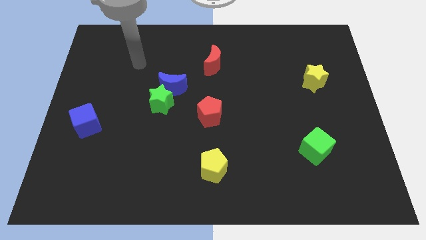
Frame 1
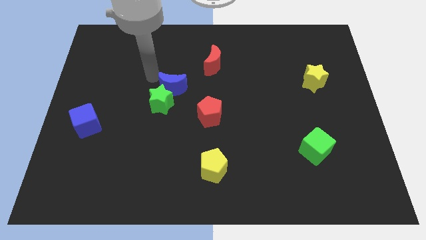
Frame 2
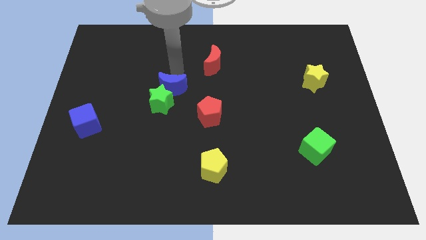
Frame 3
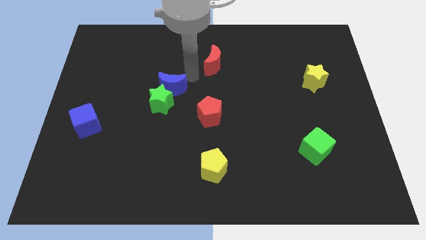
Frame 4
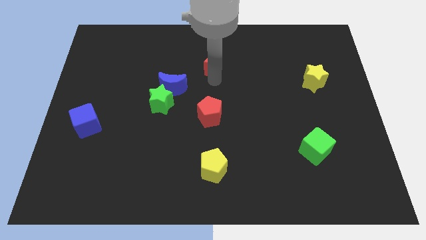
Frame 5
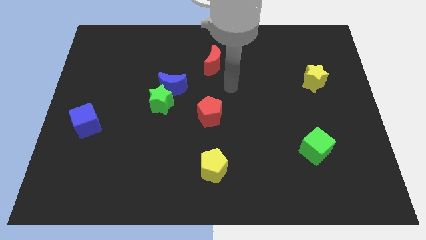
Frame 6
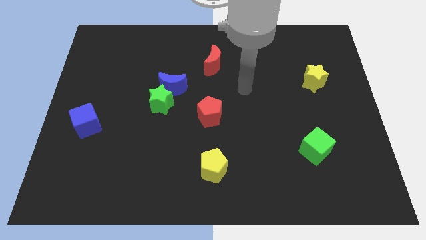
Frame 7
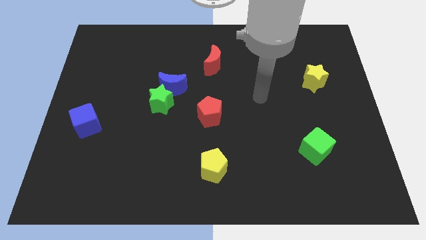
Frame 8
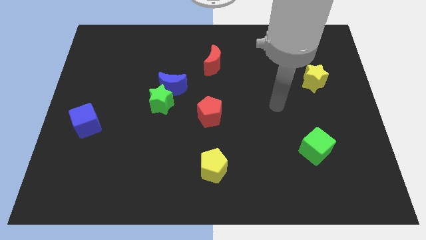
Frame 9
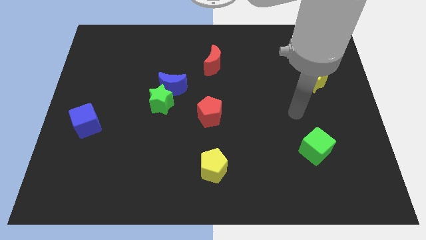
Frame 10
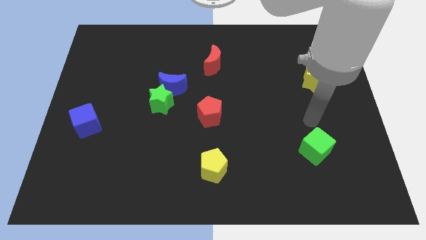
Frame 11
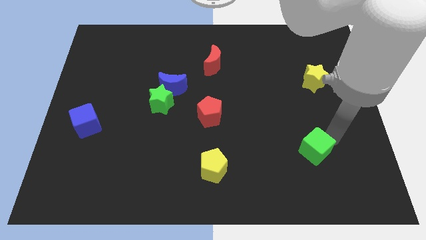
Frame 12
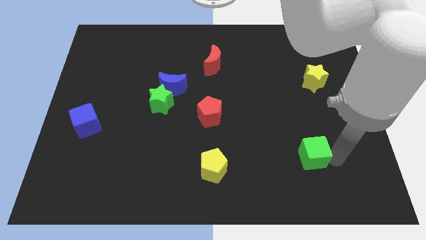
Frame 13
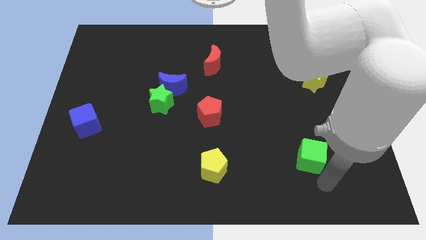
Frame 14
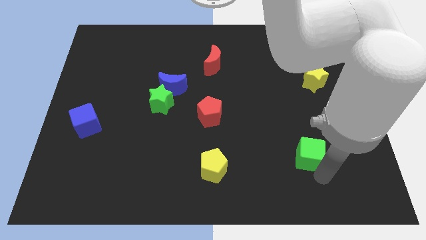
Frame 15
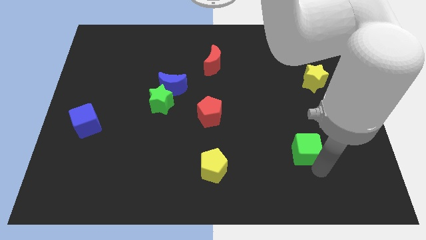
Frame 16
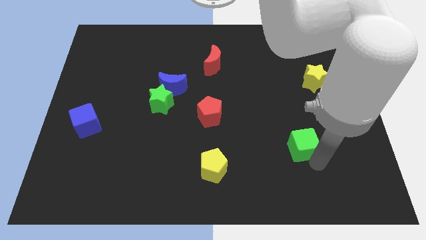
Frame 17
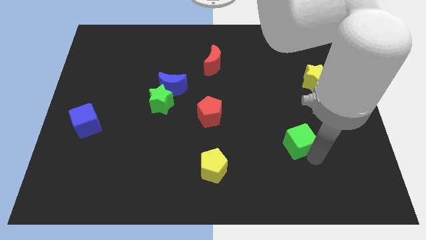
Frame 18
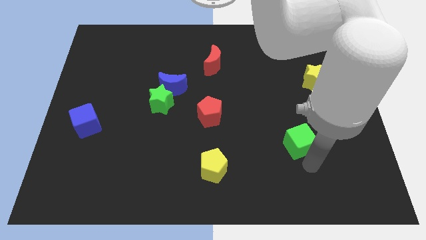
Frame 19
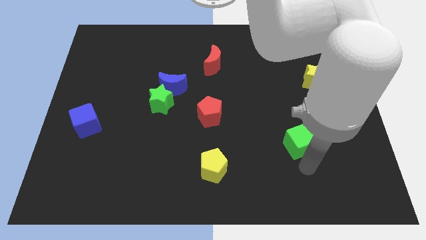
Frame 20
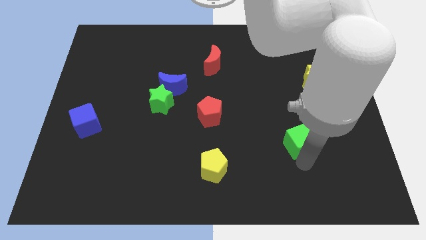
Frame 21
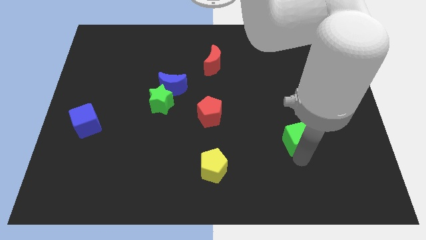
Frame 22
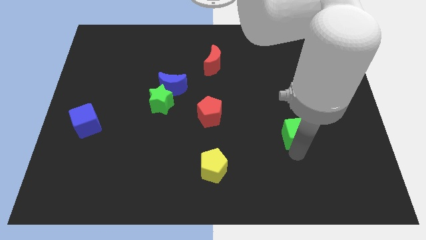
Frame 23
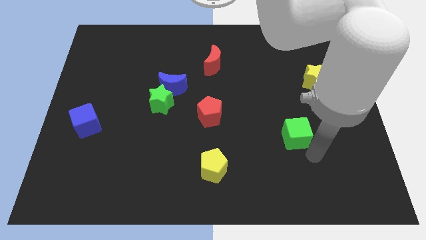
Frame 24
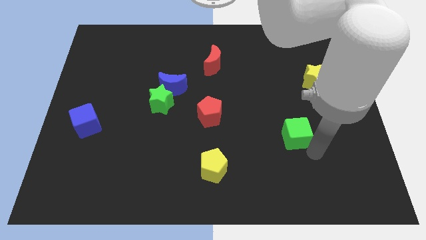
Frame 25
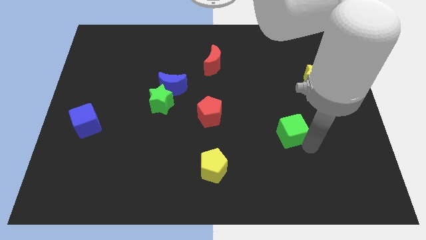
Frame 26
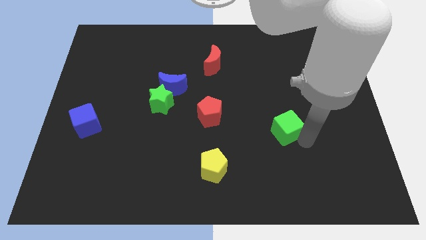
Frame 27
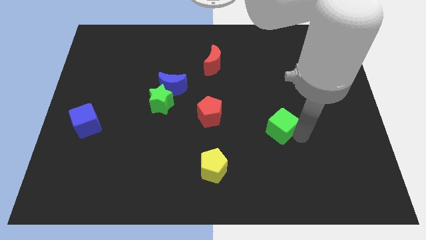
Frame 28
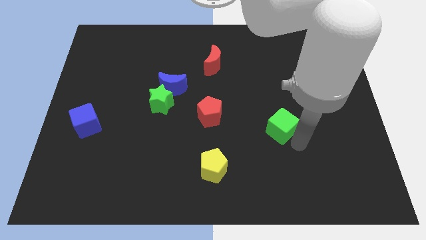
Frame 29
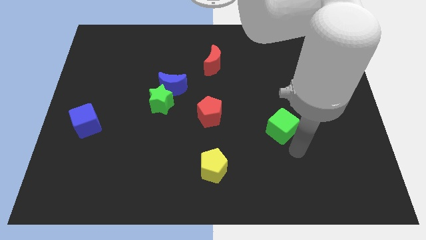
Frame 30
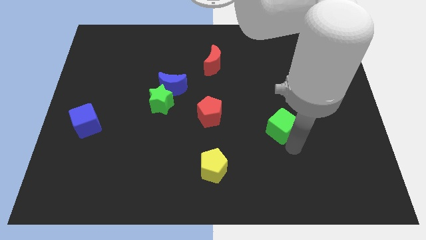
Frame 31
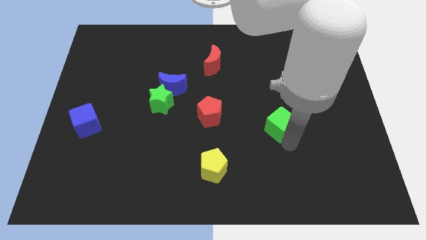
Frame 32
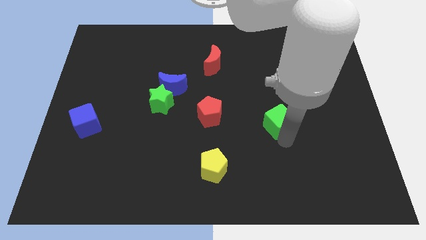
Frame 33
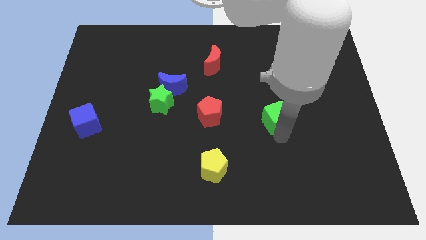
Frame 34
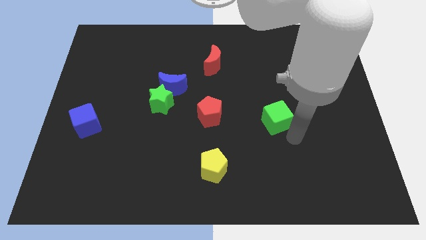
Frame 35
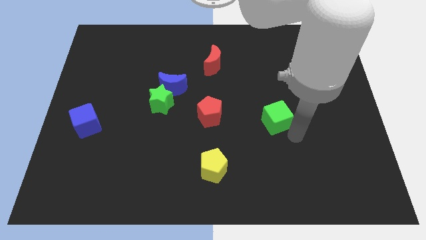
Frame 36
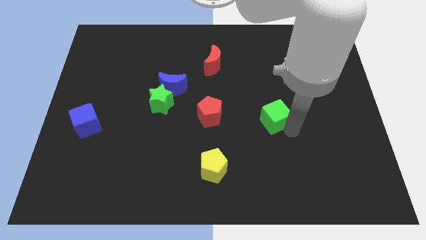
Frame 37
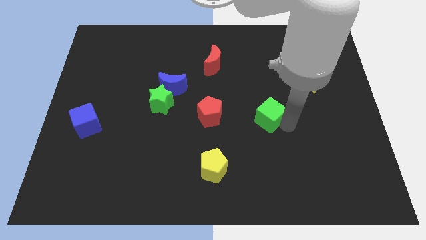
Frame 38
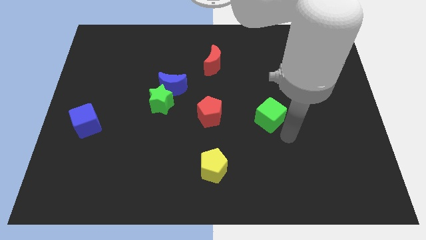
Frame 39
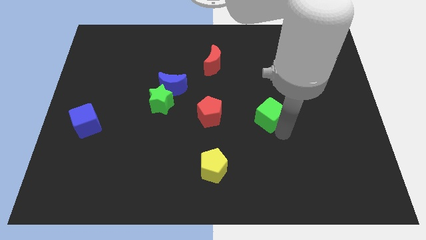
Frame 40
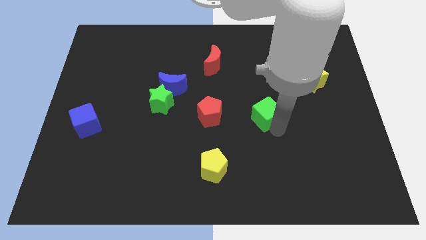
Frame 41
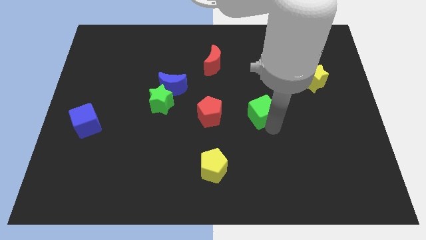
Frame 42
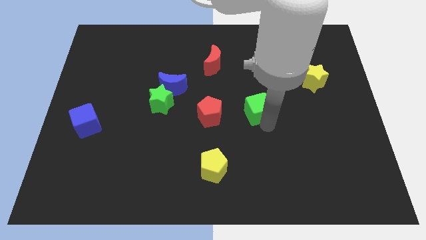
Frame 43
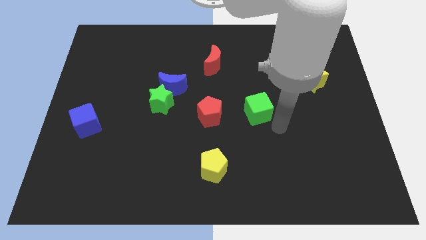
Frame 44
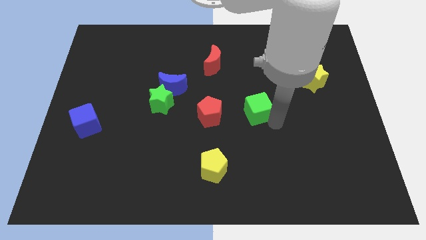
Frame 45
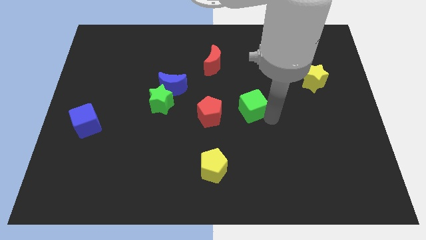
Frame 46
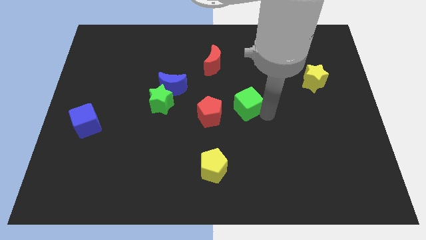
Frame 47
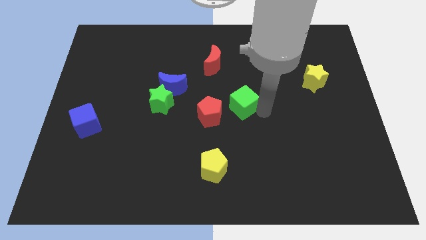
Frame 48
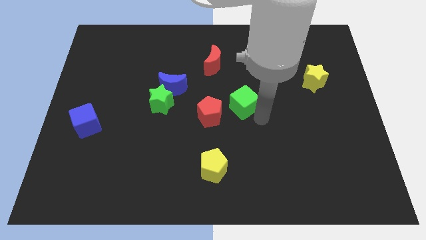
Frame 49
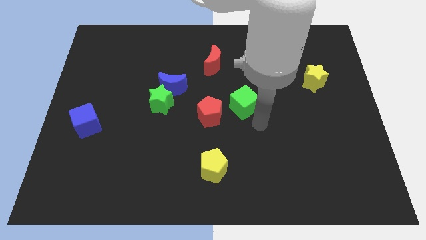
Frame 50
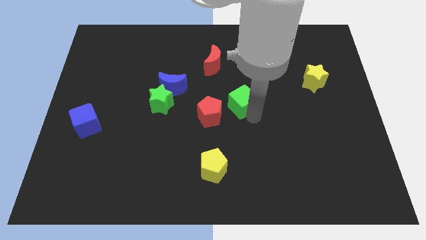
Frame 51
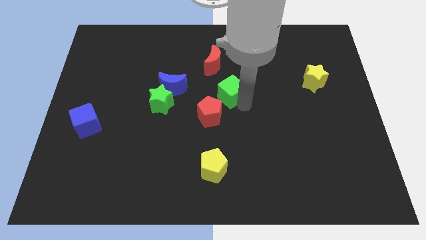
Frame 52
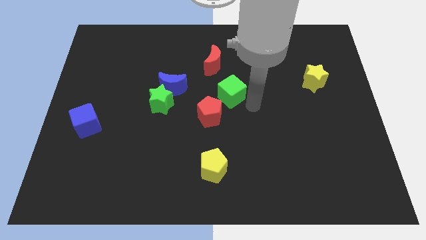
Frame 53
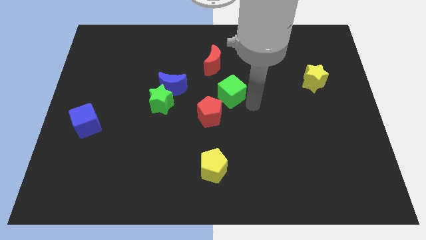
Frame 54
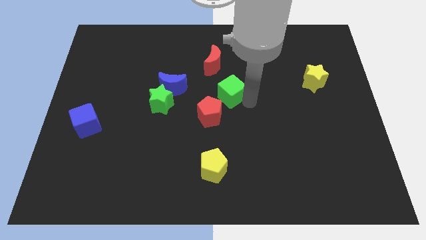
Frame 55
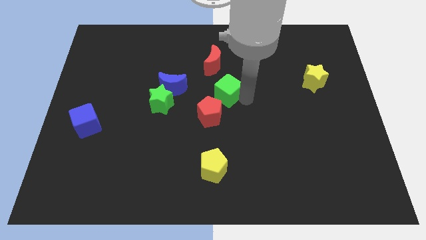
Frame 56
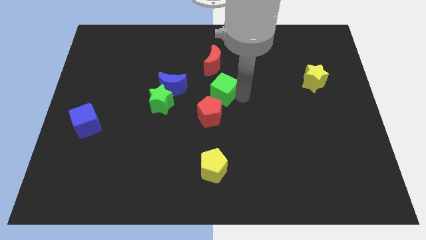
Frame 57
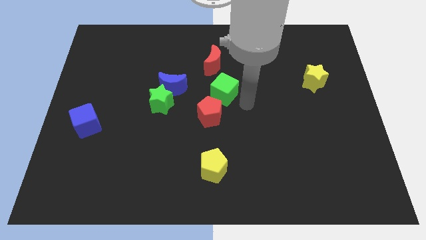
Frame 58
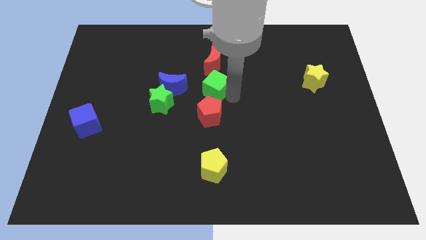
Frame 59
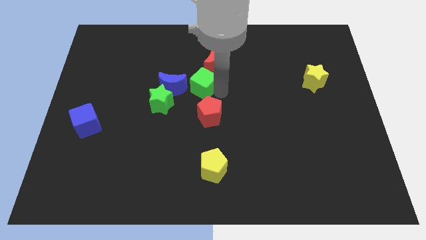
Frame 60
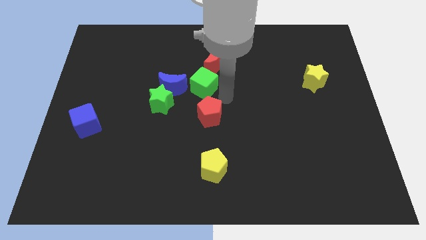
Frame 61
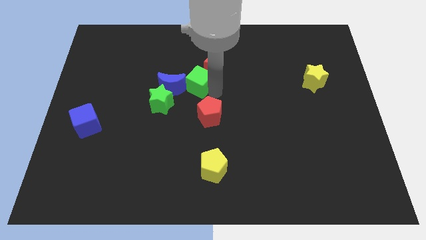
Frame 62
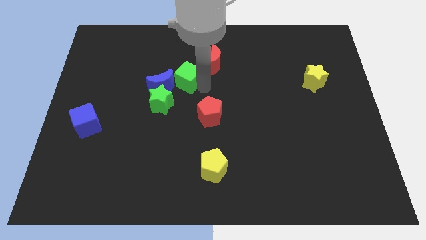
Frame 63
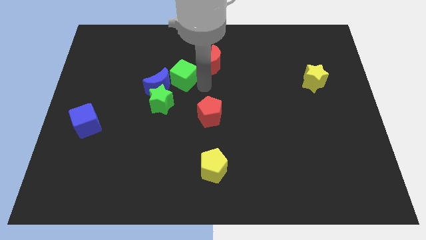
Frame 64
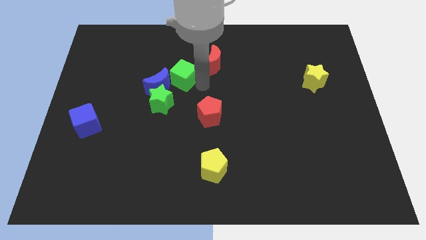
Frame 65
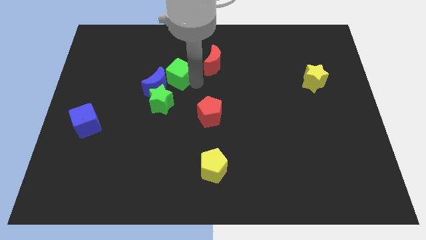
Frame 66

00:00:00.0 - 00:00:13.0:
push the green cube to the top of the green star

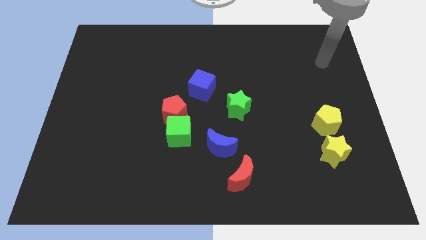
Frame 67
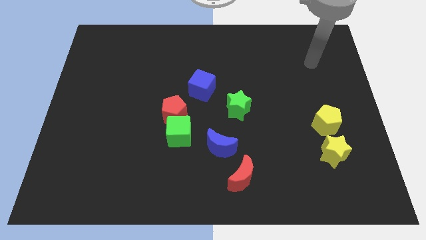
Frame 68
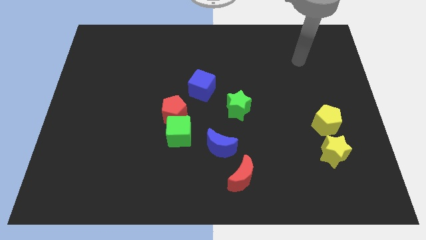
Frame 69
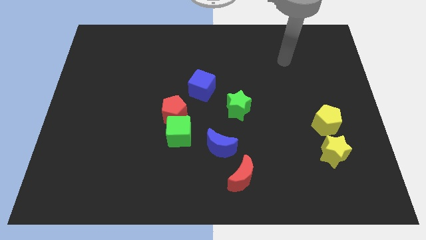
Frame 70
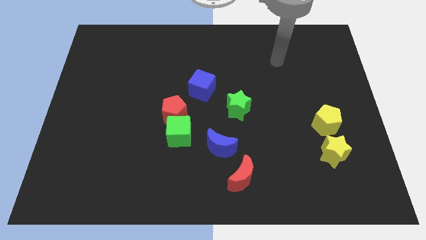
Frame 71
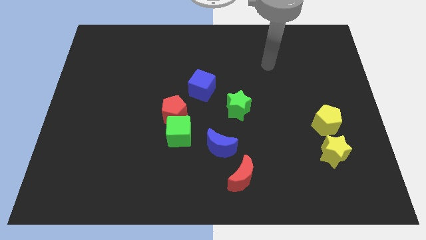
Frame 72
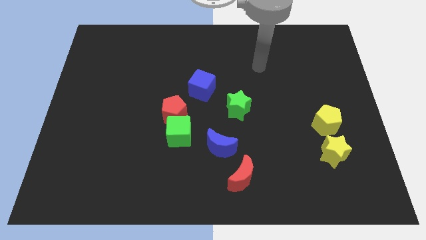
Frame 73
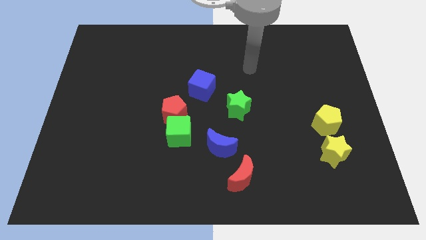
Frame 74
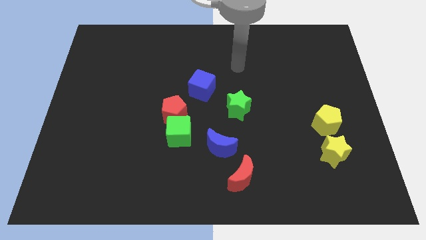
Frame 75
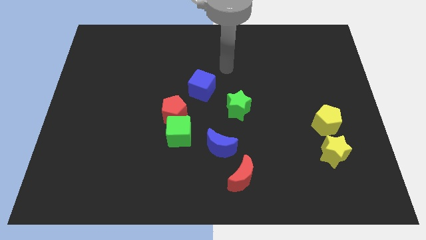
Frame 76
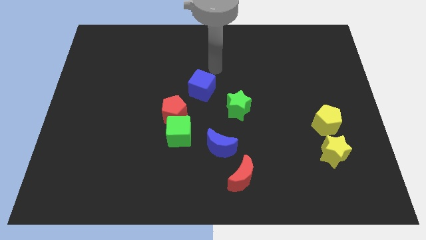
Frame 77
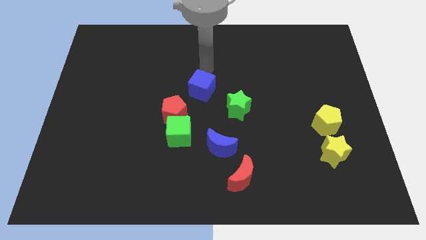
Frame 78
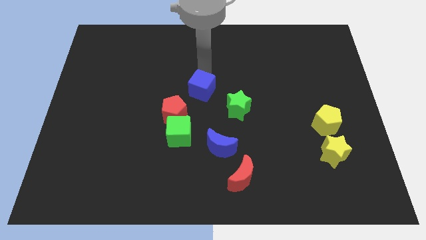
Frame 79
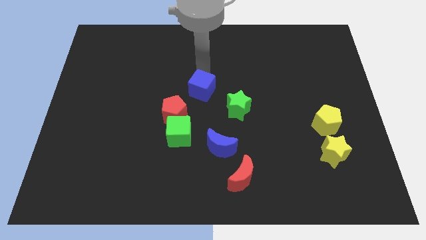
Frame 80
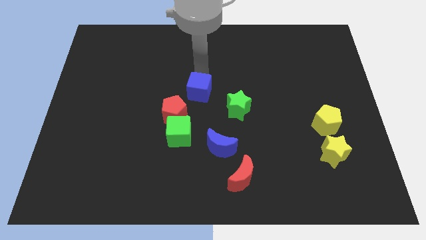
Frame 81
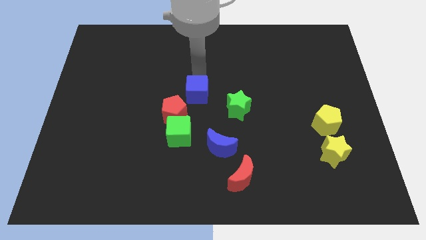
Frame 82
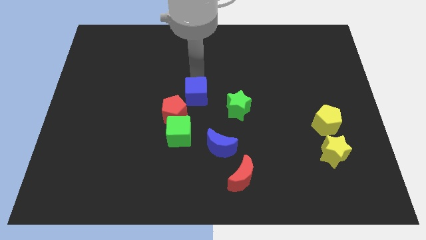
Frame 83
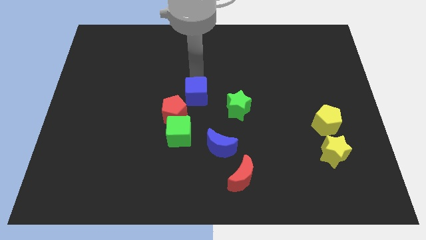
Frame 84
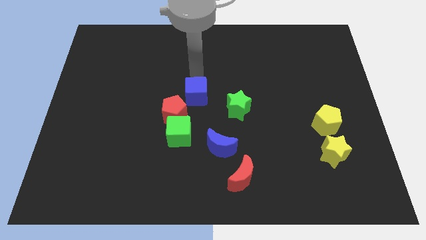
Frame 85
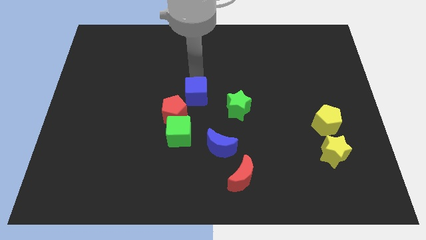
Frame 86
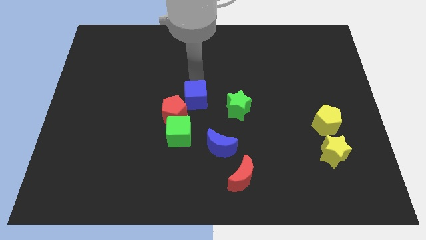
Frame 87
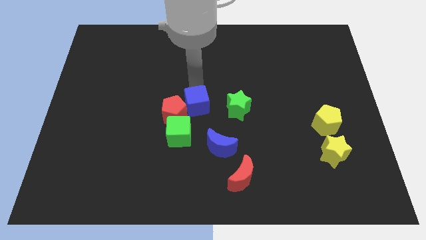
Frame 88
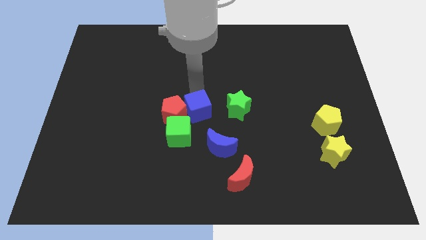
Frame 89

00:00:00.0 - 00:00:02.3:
slide the blue cube to the bottom right side of the red pentagon
